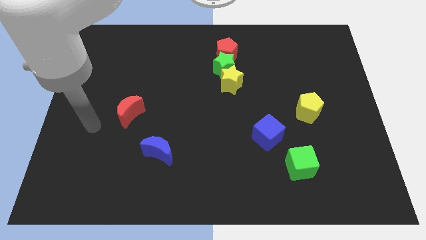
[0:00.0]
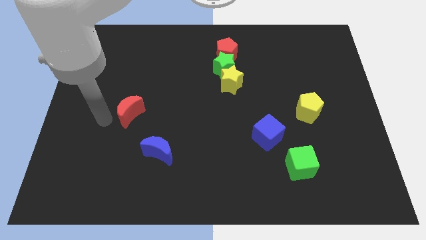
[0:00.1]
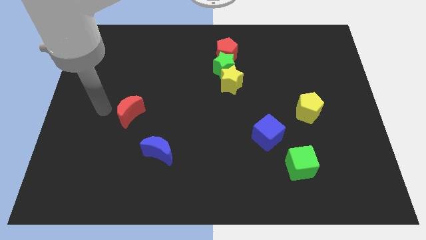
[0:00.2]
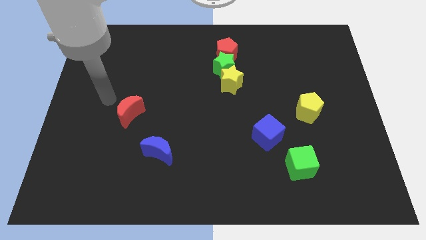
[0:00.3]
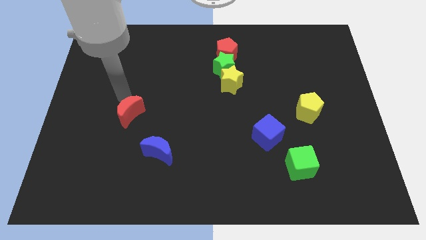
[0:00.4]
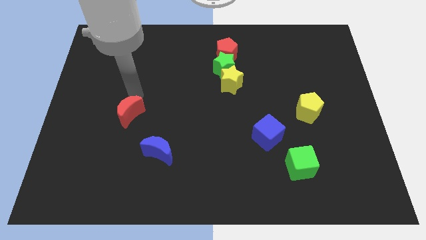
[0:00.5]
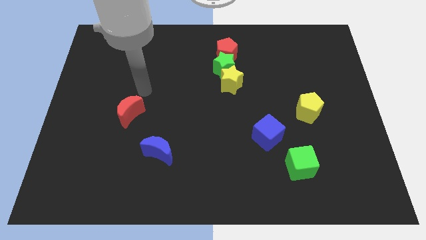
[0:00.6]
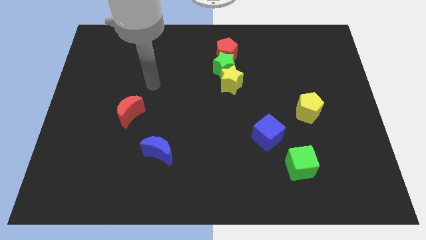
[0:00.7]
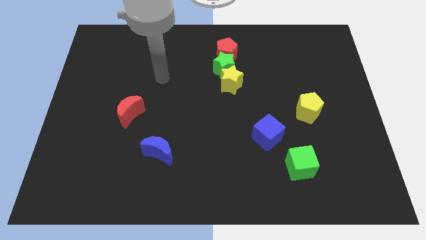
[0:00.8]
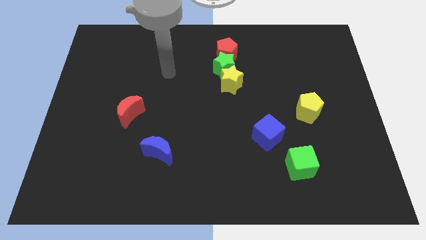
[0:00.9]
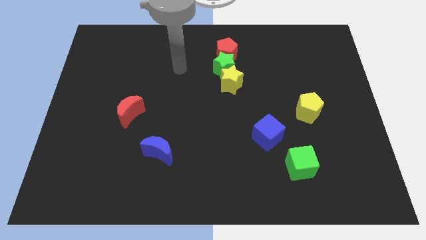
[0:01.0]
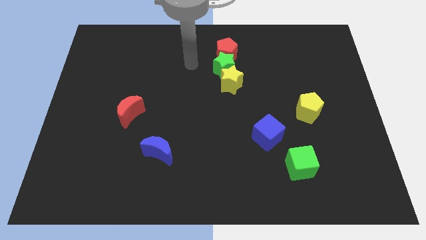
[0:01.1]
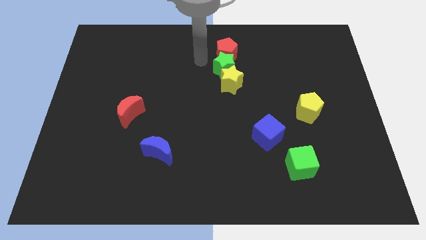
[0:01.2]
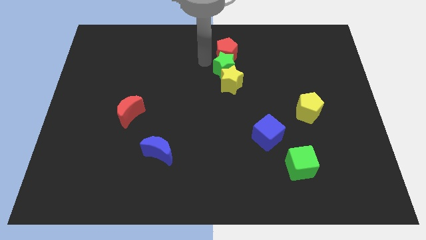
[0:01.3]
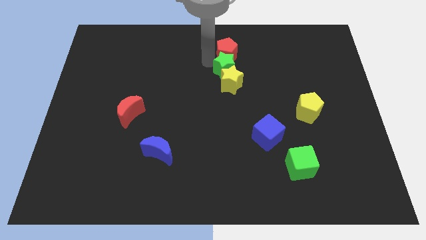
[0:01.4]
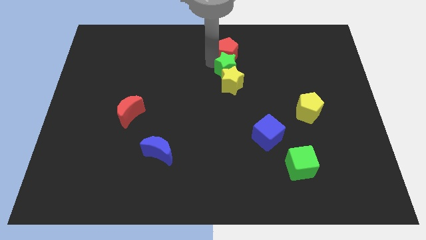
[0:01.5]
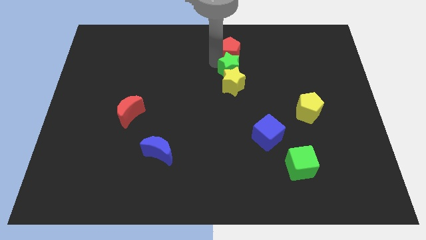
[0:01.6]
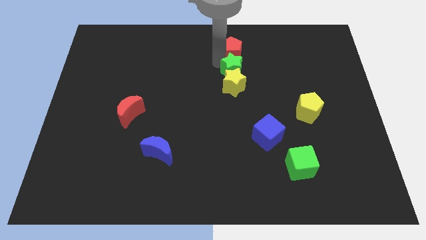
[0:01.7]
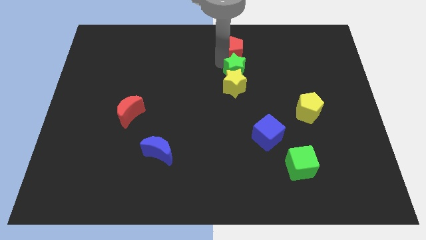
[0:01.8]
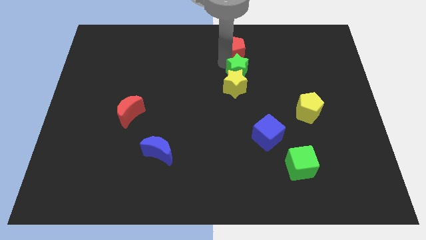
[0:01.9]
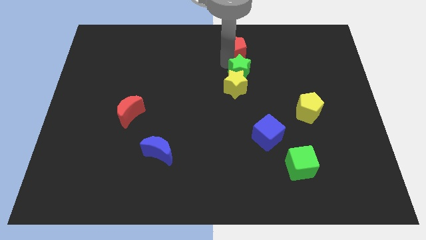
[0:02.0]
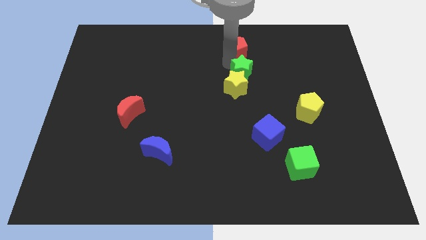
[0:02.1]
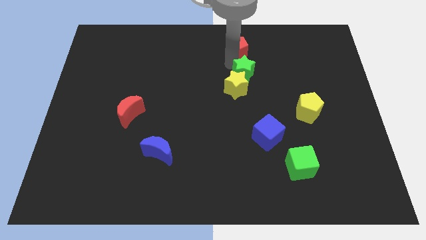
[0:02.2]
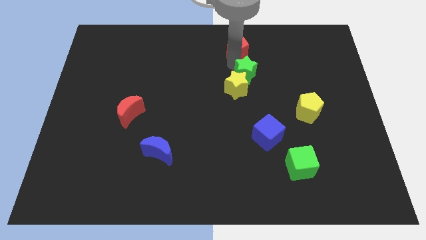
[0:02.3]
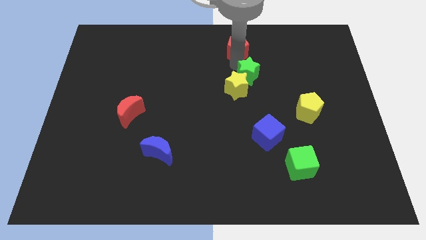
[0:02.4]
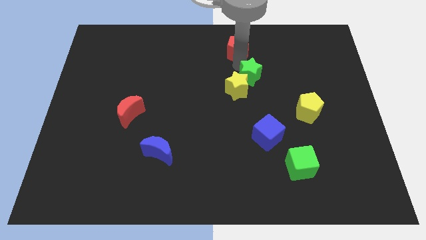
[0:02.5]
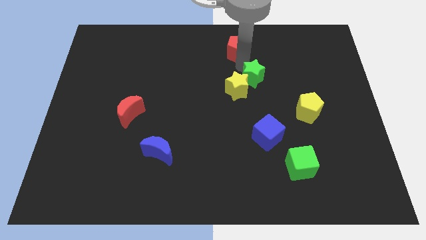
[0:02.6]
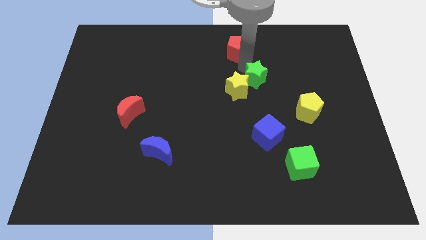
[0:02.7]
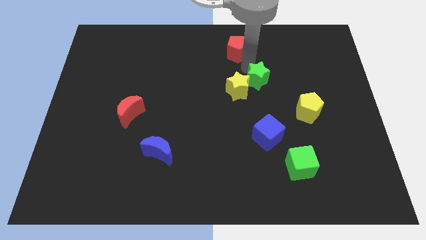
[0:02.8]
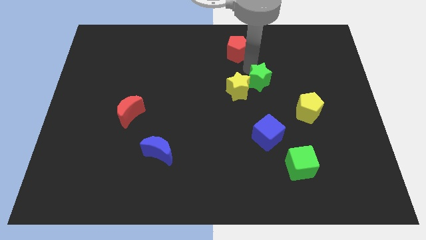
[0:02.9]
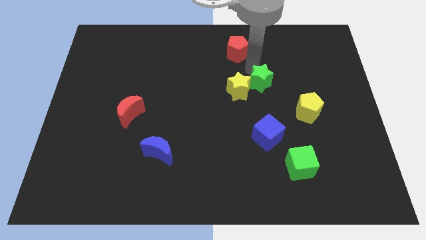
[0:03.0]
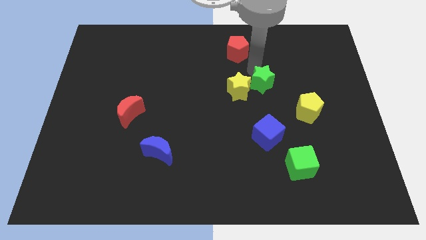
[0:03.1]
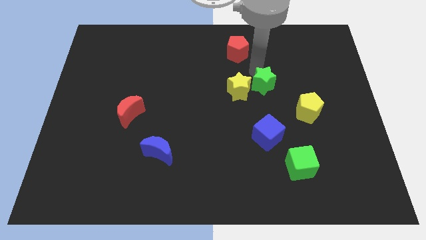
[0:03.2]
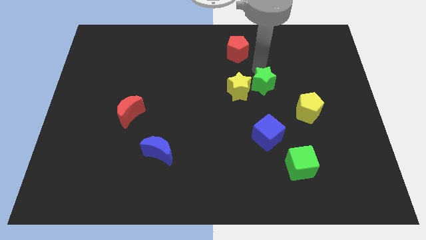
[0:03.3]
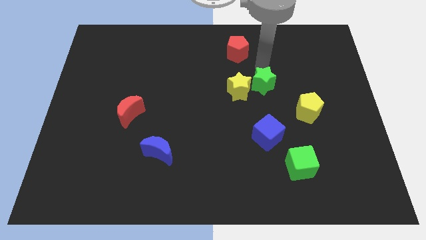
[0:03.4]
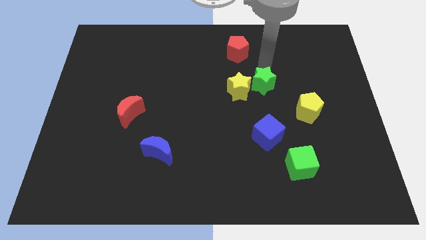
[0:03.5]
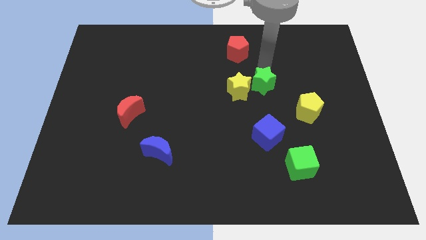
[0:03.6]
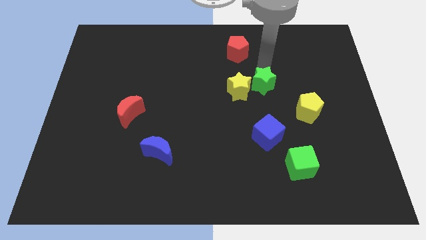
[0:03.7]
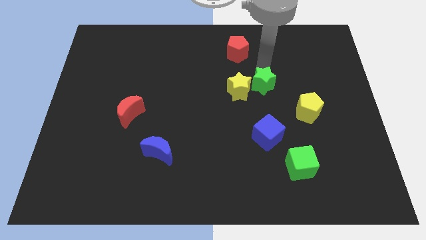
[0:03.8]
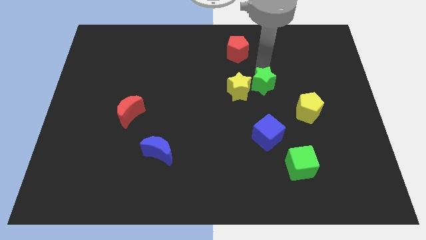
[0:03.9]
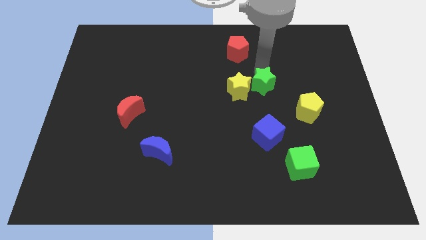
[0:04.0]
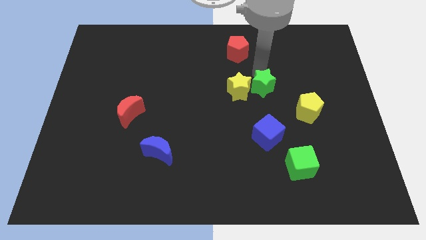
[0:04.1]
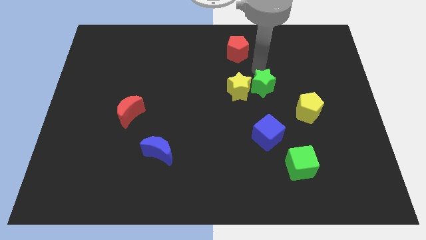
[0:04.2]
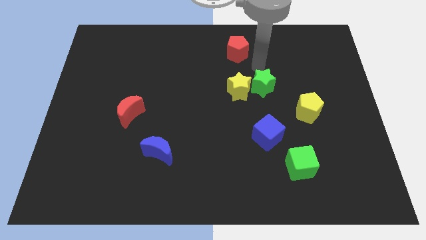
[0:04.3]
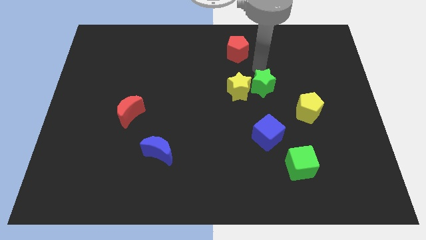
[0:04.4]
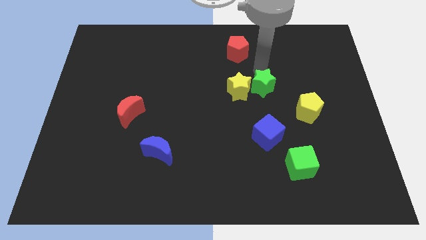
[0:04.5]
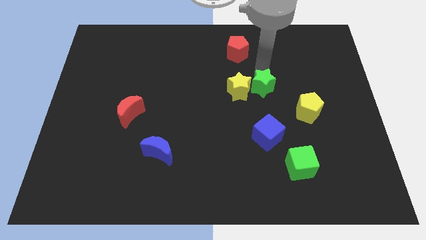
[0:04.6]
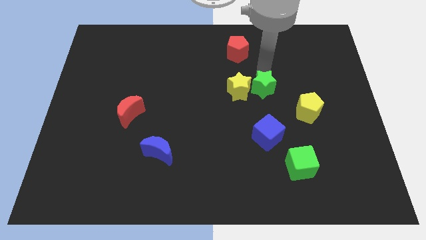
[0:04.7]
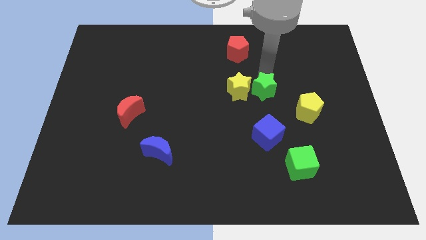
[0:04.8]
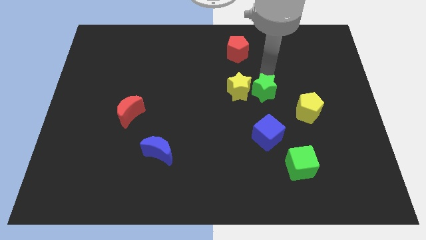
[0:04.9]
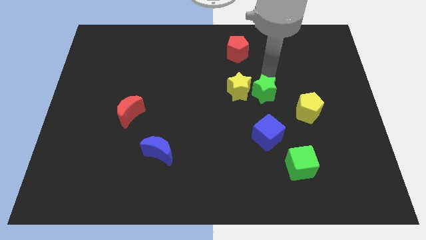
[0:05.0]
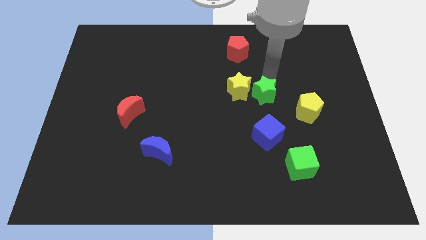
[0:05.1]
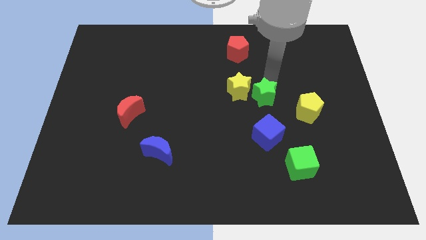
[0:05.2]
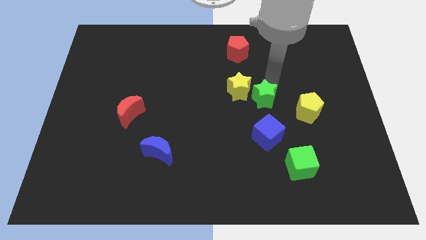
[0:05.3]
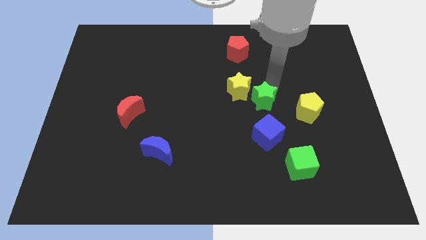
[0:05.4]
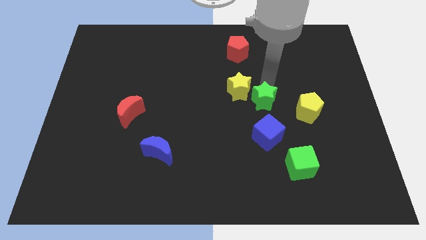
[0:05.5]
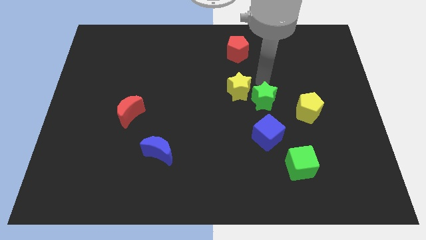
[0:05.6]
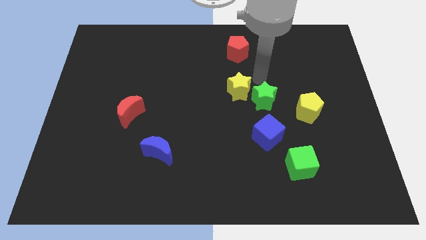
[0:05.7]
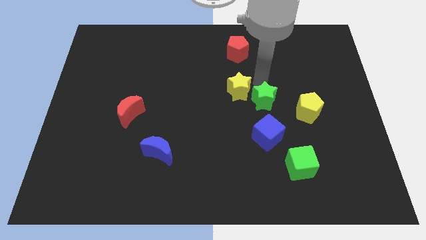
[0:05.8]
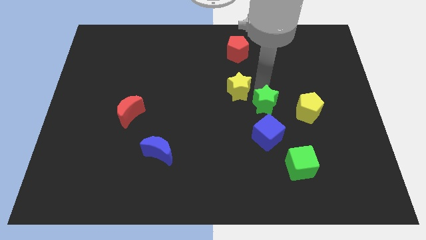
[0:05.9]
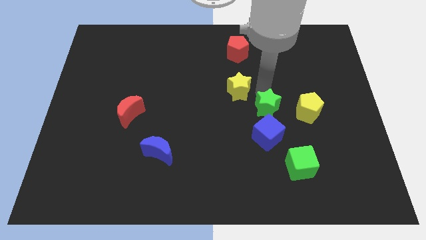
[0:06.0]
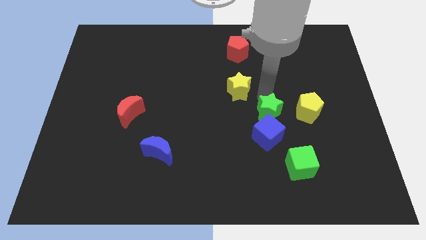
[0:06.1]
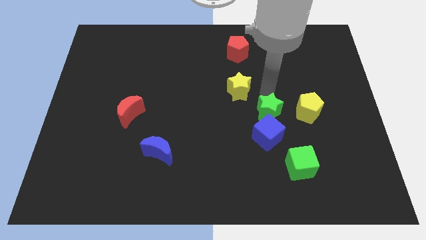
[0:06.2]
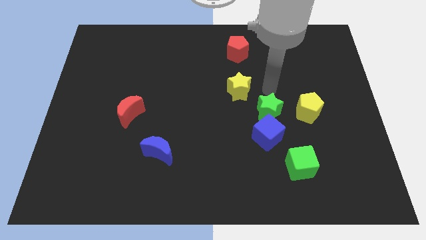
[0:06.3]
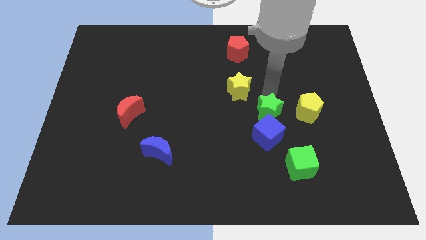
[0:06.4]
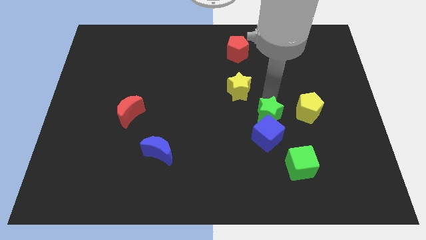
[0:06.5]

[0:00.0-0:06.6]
put the green star towards the blue cube
